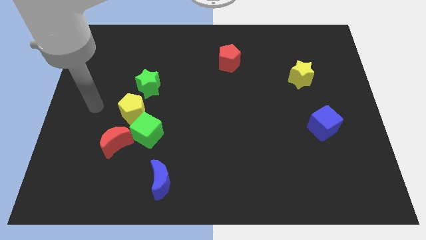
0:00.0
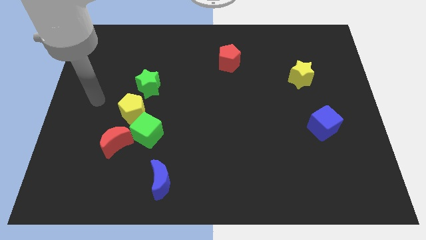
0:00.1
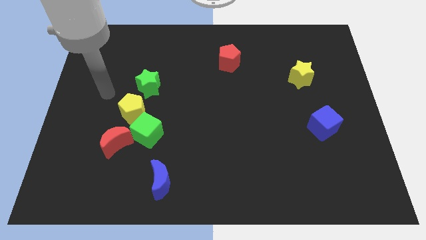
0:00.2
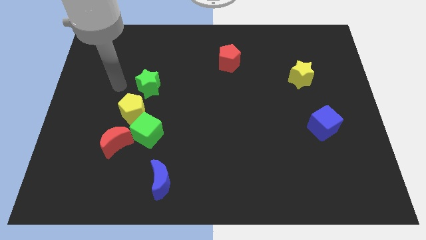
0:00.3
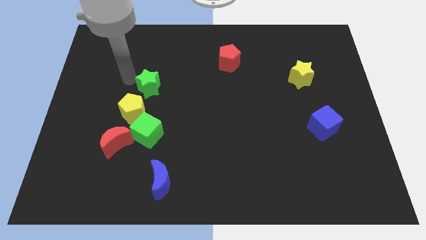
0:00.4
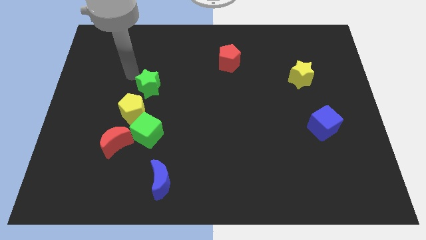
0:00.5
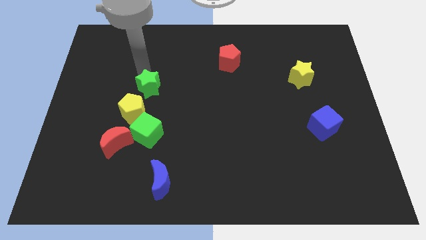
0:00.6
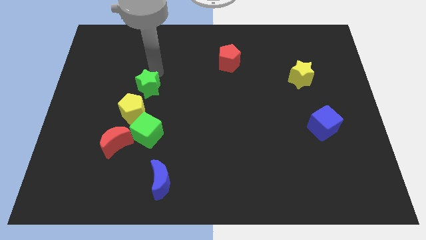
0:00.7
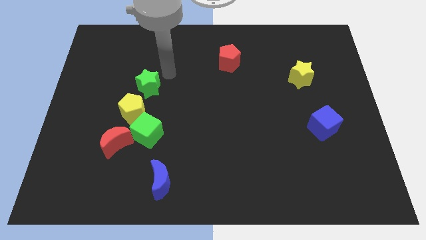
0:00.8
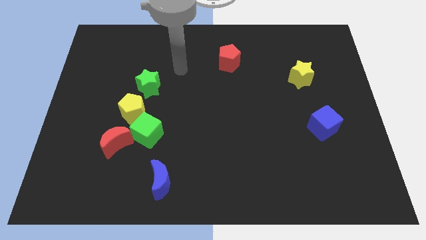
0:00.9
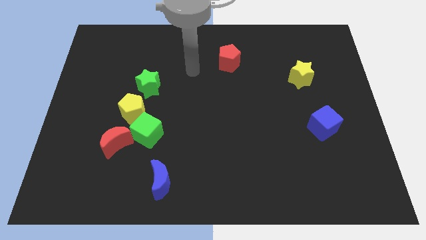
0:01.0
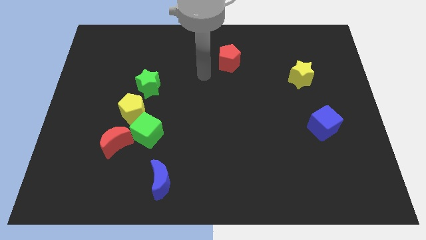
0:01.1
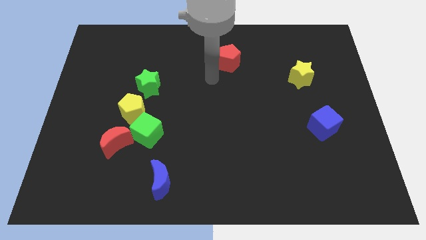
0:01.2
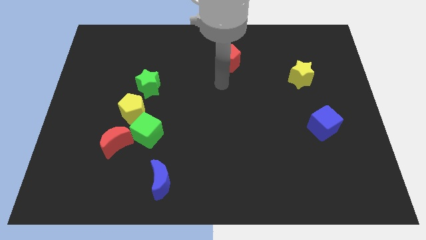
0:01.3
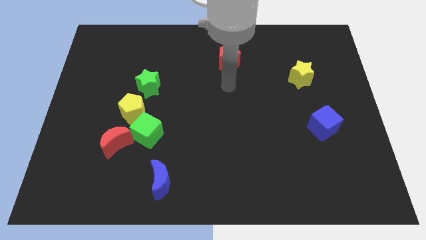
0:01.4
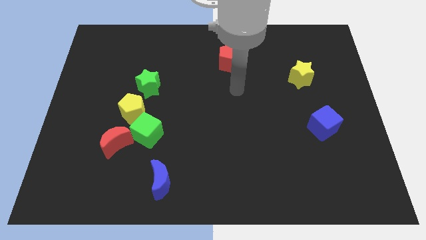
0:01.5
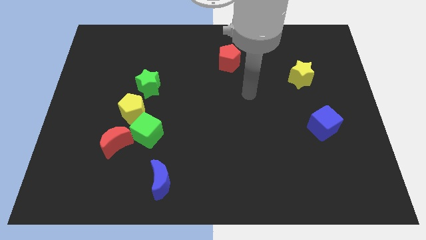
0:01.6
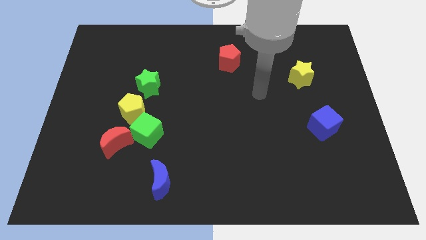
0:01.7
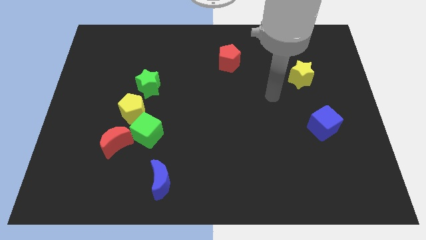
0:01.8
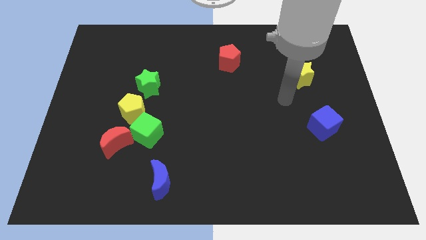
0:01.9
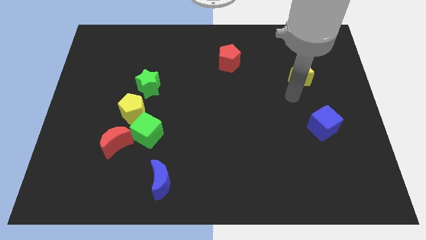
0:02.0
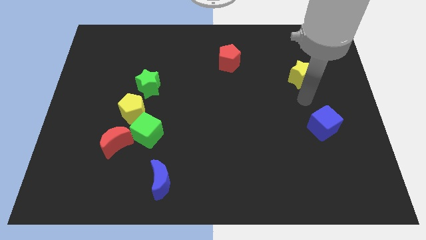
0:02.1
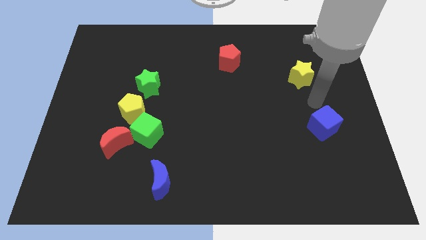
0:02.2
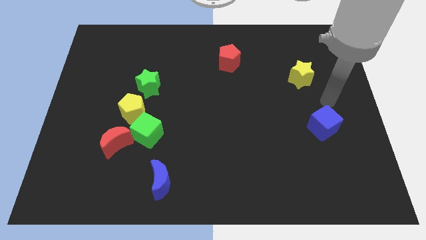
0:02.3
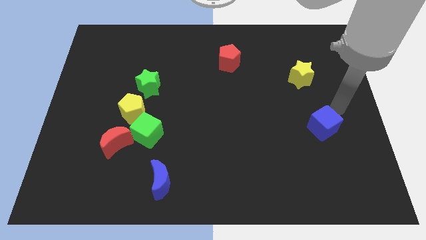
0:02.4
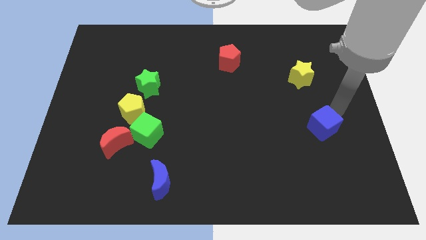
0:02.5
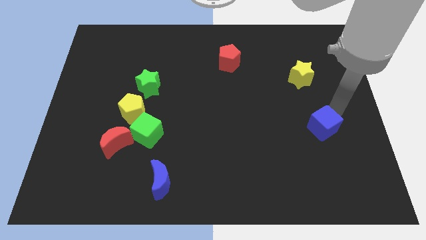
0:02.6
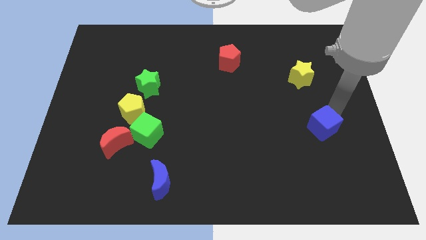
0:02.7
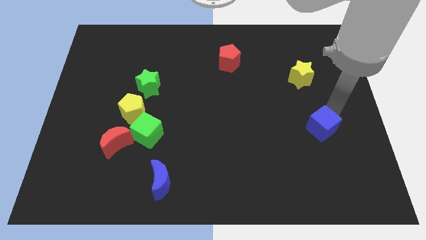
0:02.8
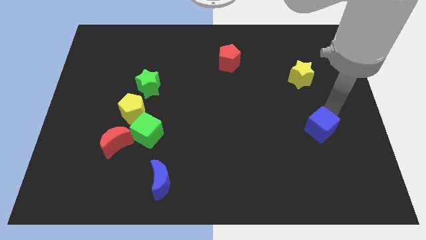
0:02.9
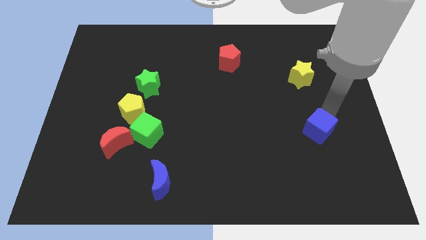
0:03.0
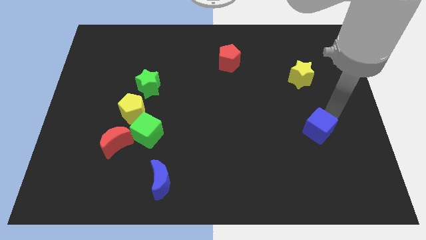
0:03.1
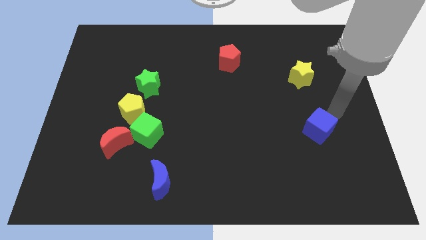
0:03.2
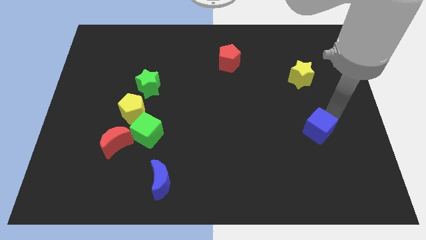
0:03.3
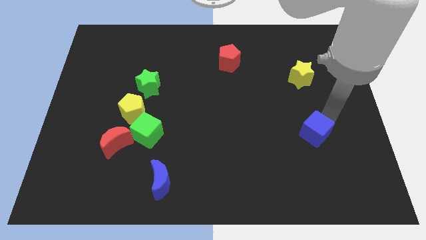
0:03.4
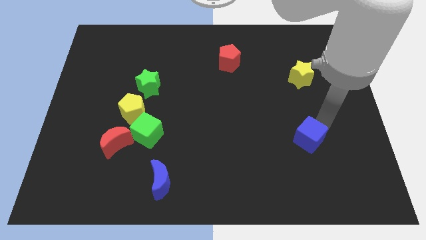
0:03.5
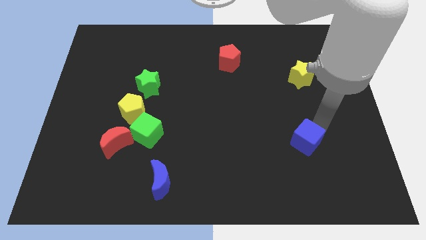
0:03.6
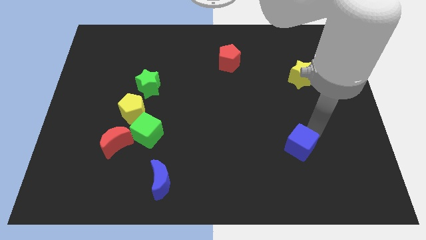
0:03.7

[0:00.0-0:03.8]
slightly slide the blue cube down and left diagonally

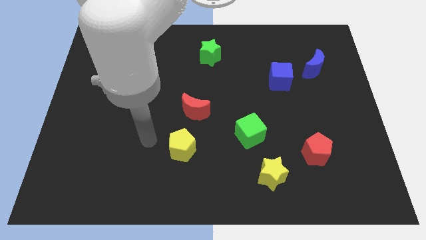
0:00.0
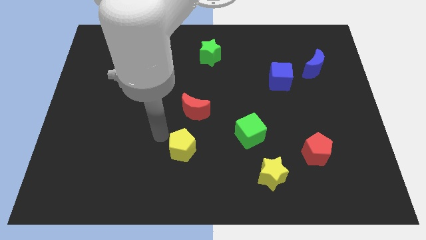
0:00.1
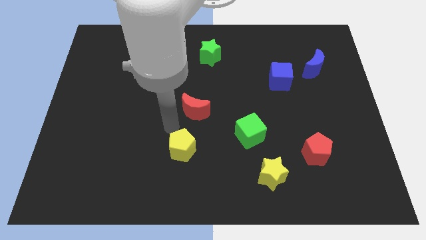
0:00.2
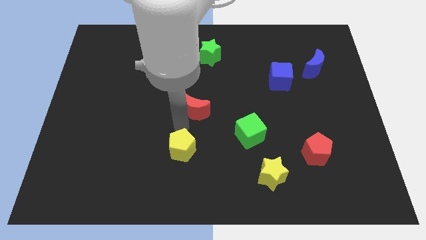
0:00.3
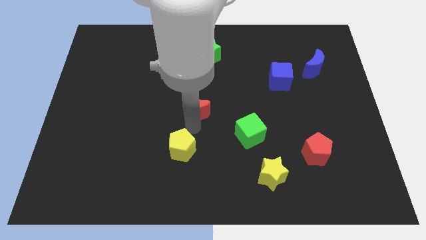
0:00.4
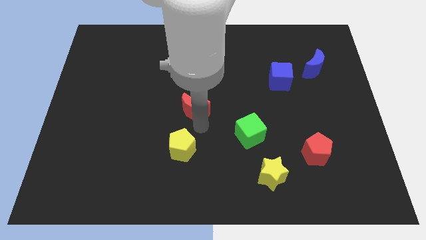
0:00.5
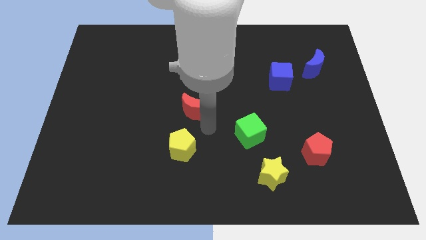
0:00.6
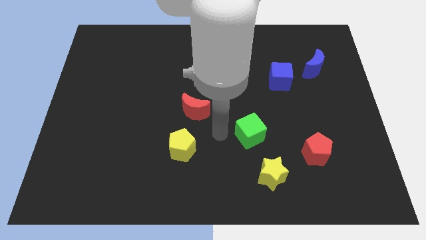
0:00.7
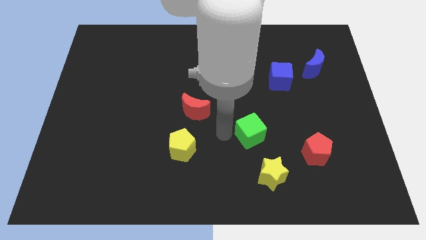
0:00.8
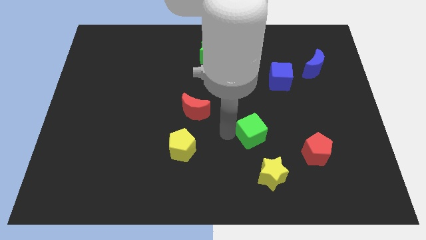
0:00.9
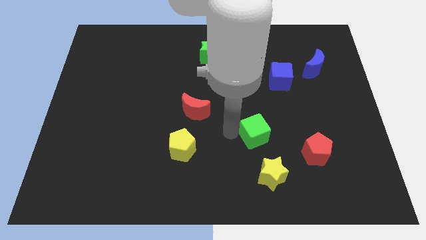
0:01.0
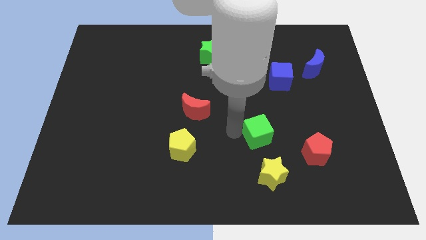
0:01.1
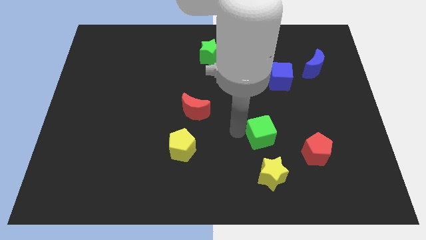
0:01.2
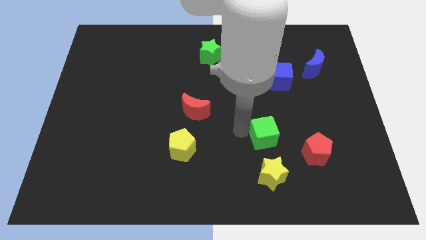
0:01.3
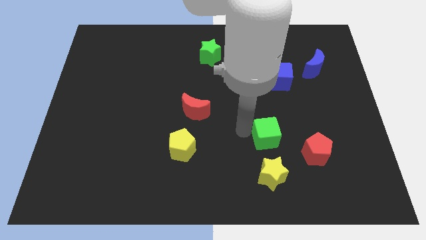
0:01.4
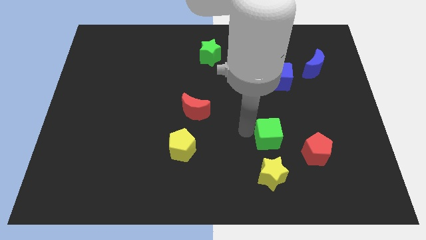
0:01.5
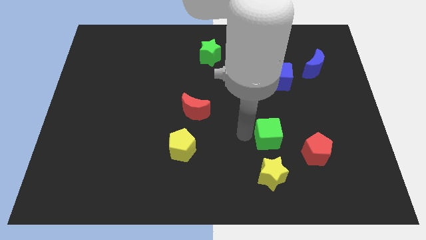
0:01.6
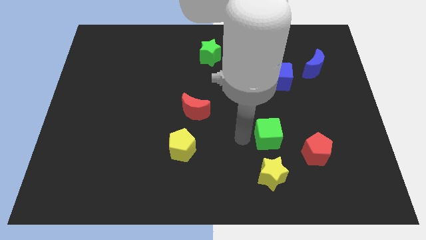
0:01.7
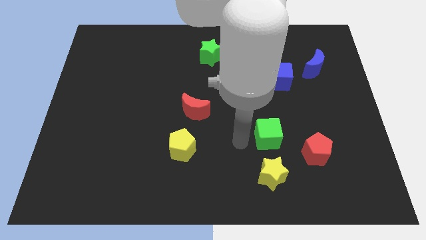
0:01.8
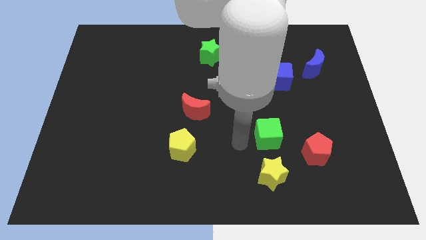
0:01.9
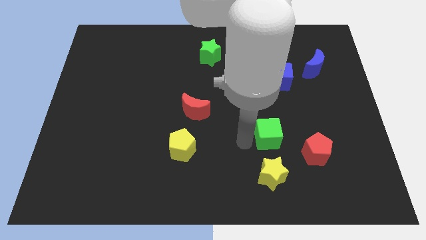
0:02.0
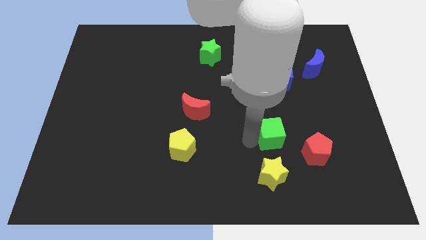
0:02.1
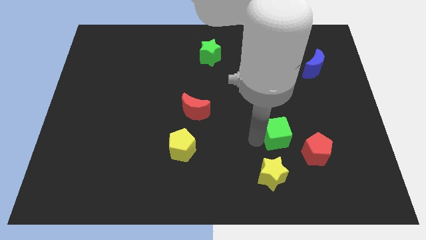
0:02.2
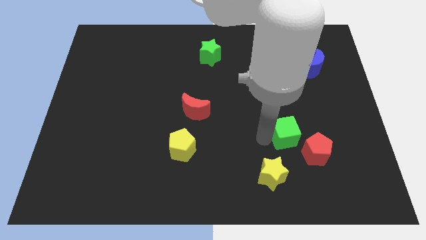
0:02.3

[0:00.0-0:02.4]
push the green cube a little to the right

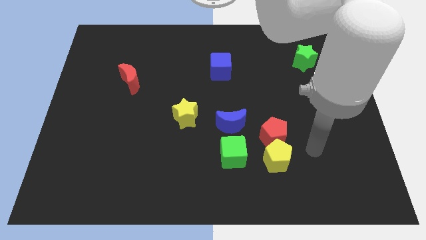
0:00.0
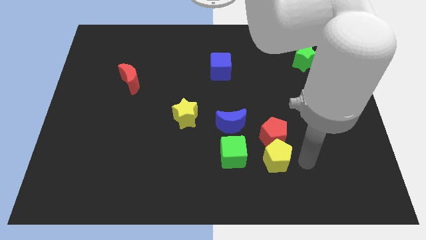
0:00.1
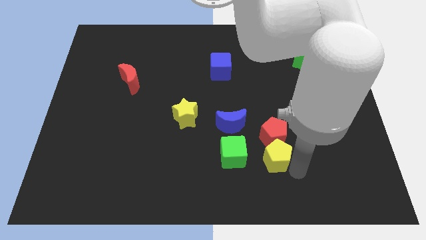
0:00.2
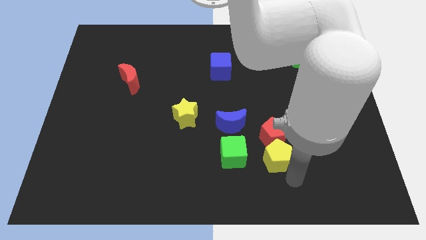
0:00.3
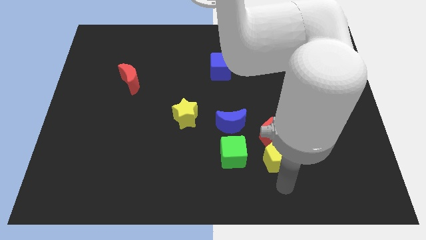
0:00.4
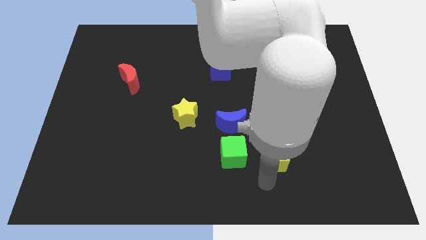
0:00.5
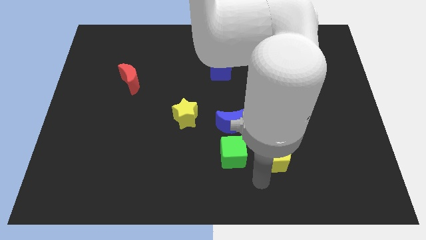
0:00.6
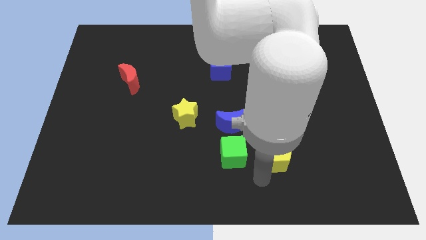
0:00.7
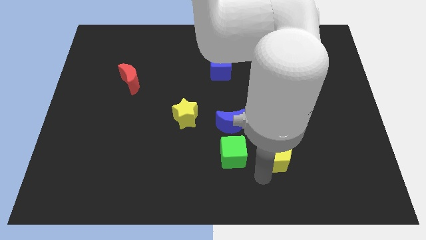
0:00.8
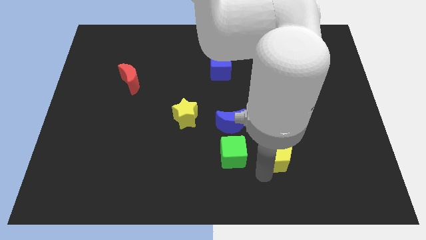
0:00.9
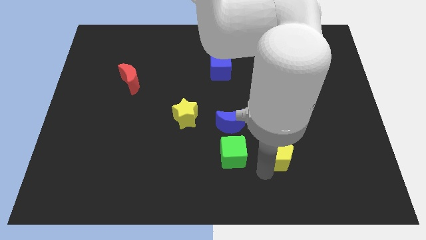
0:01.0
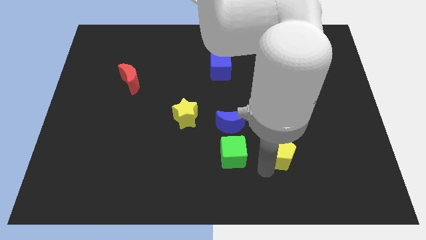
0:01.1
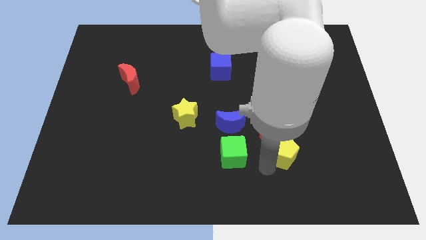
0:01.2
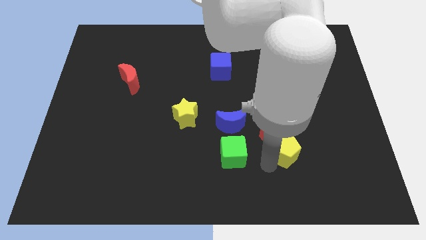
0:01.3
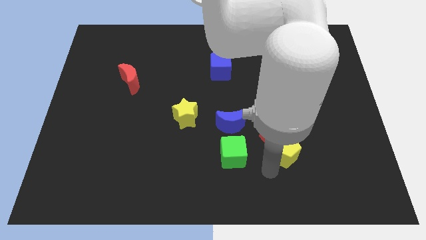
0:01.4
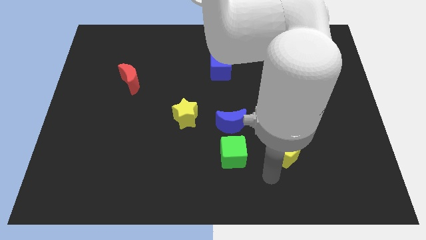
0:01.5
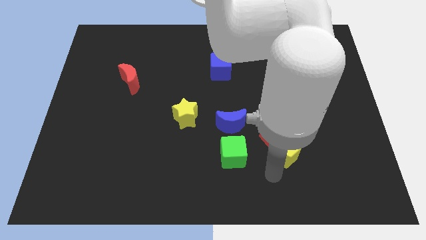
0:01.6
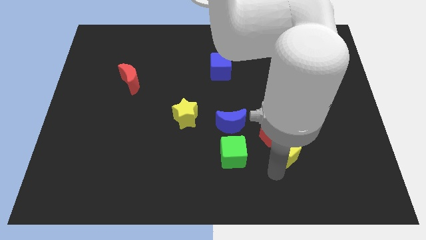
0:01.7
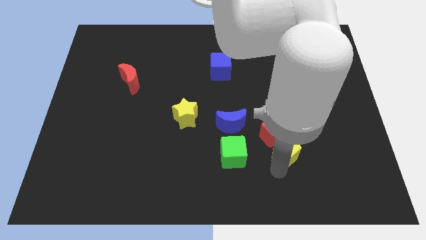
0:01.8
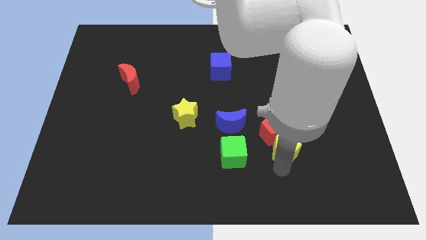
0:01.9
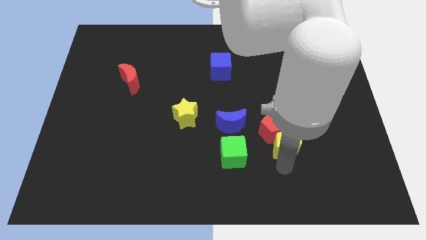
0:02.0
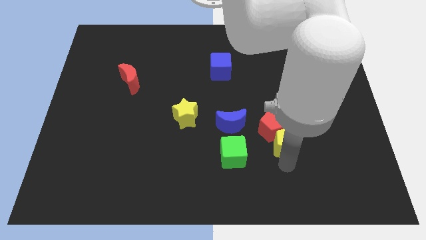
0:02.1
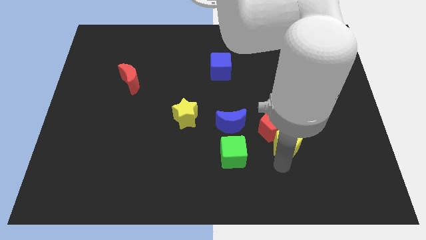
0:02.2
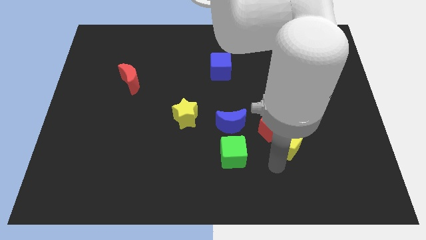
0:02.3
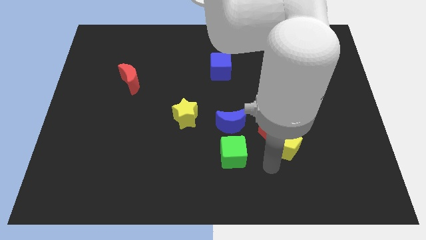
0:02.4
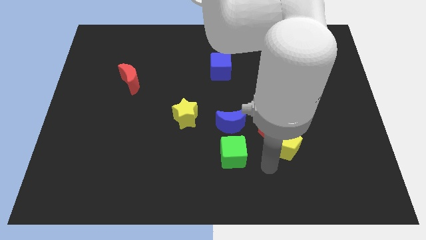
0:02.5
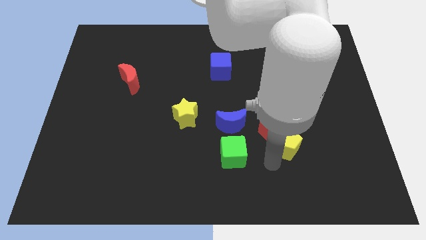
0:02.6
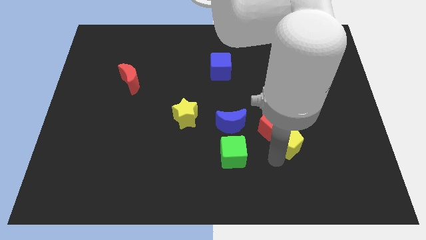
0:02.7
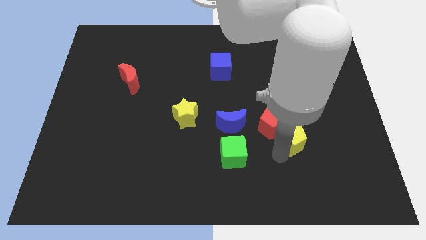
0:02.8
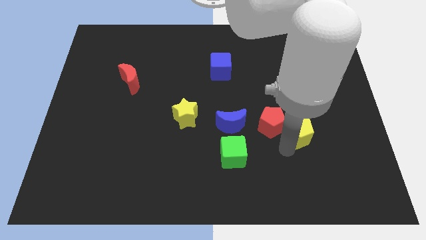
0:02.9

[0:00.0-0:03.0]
slide the yellow pentagon somewhat up and right diagonally
